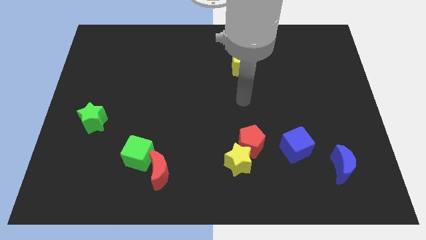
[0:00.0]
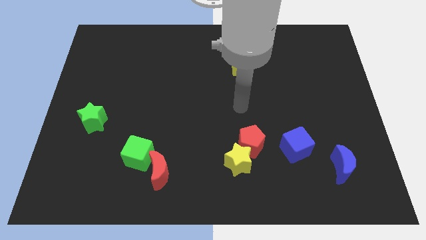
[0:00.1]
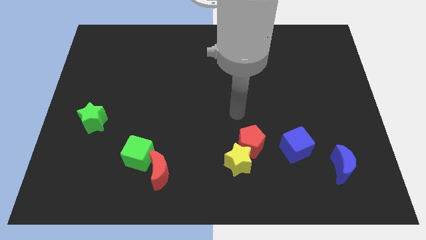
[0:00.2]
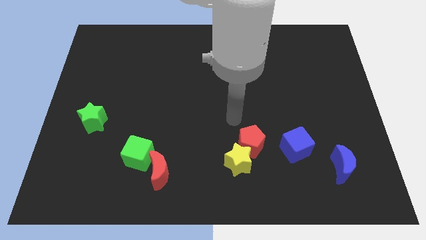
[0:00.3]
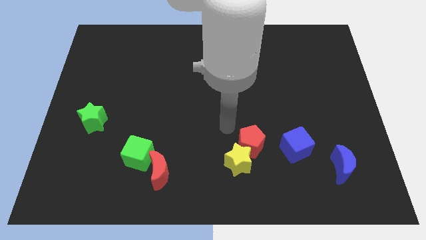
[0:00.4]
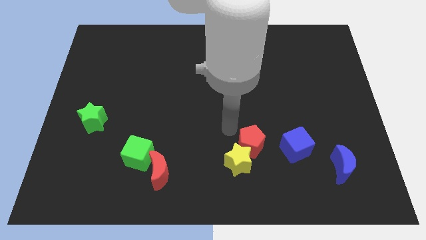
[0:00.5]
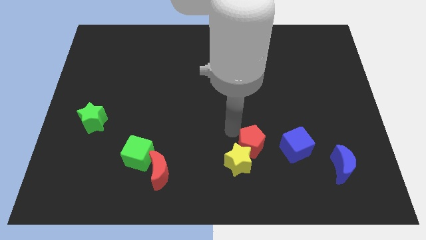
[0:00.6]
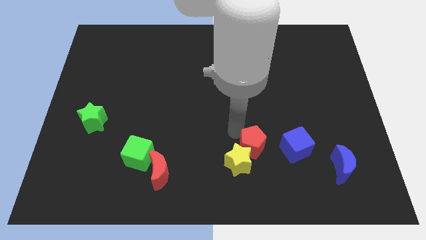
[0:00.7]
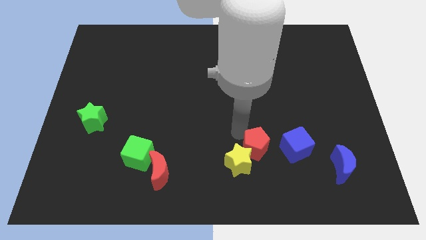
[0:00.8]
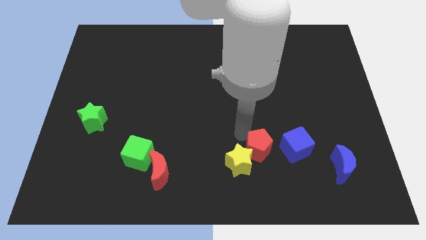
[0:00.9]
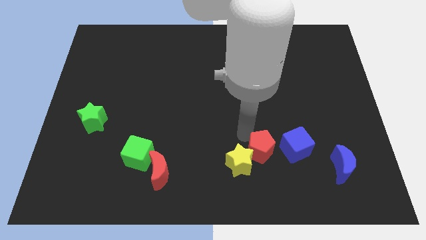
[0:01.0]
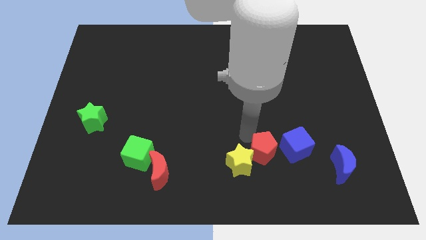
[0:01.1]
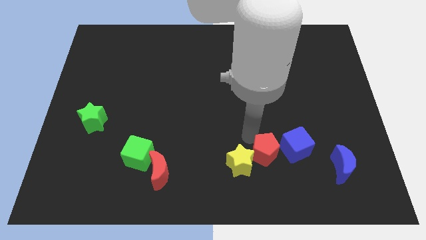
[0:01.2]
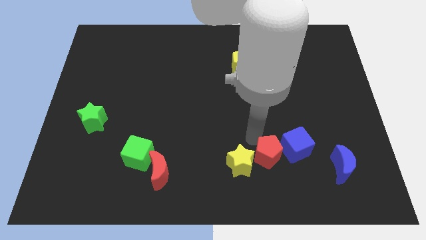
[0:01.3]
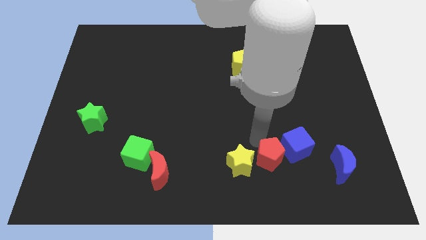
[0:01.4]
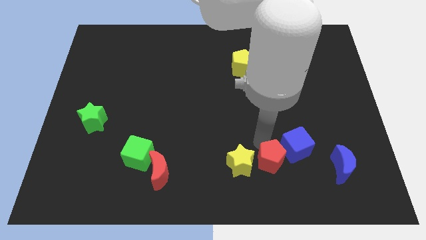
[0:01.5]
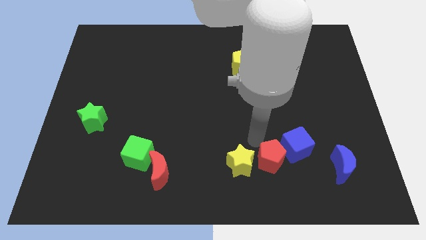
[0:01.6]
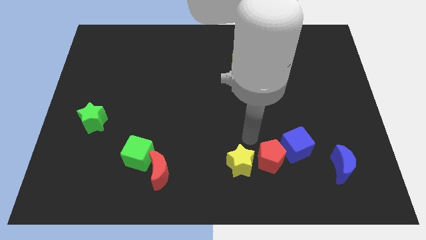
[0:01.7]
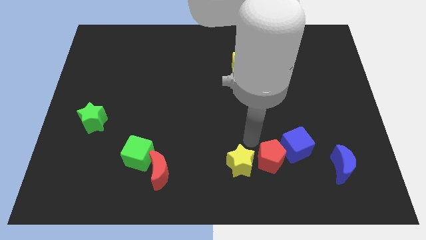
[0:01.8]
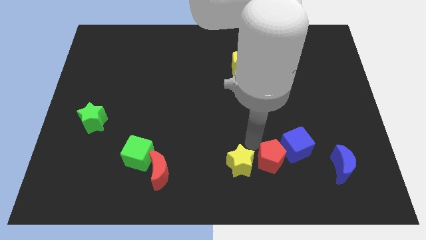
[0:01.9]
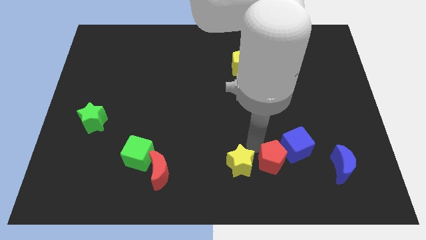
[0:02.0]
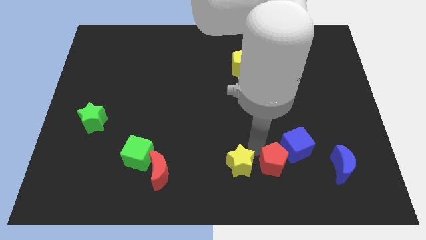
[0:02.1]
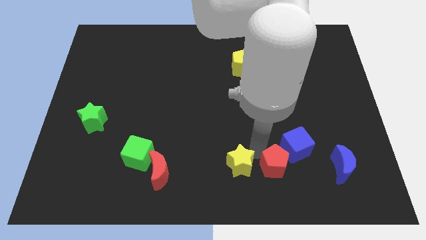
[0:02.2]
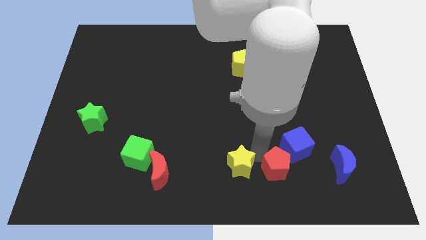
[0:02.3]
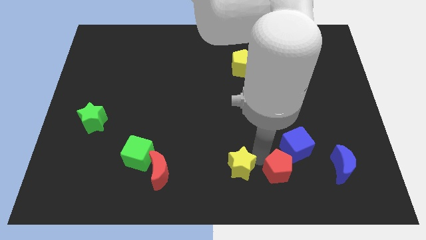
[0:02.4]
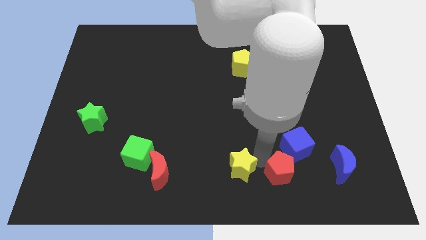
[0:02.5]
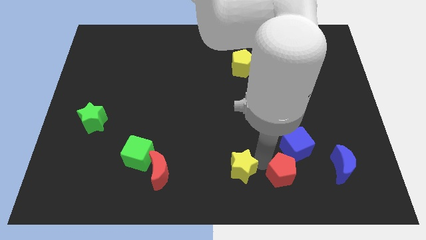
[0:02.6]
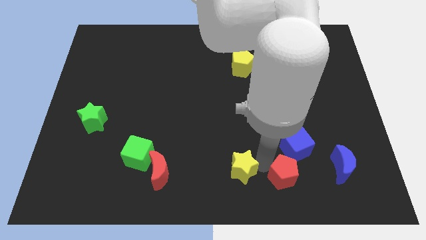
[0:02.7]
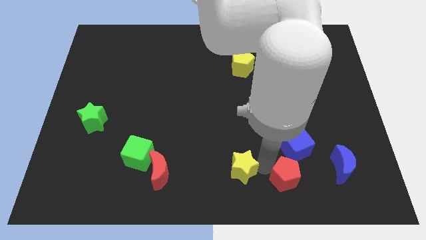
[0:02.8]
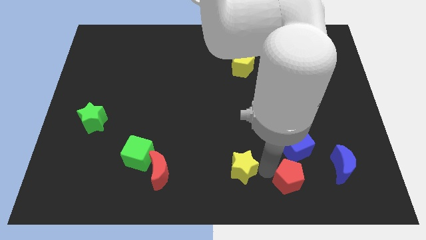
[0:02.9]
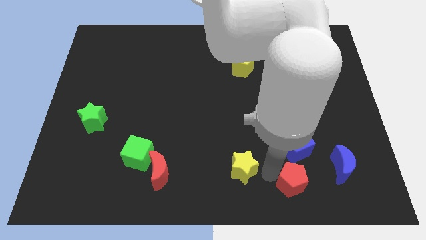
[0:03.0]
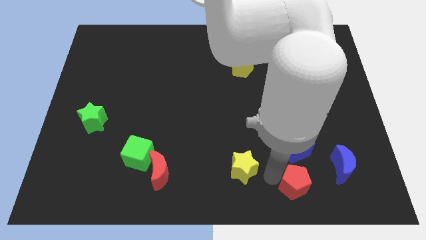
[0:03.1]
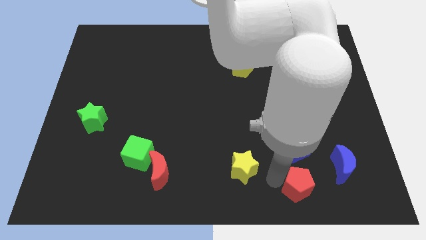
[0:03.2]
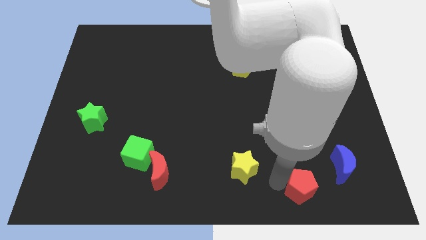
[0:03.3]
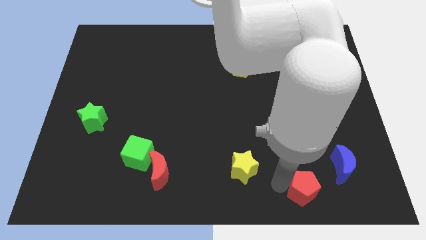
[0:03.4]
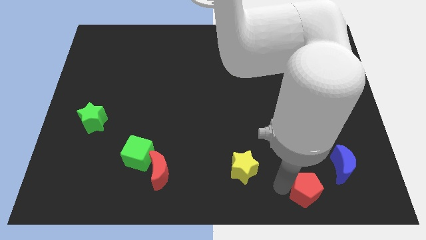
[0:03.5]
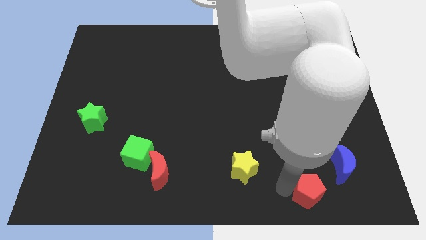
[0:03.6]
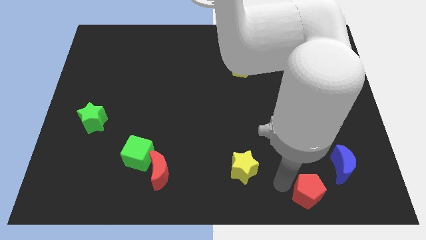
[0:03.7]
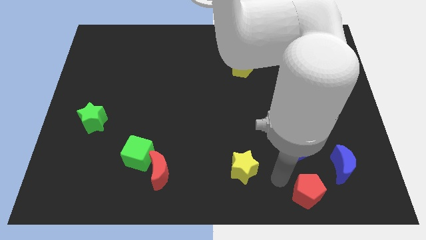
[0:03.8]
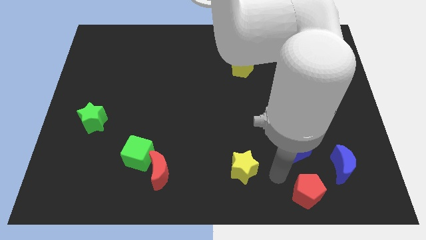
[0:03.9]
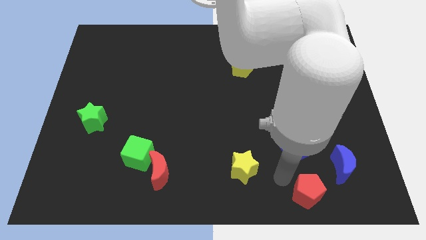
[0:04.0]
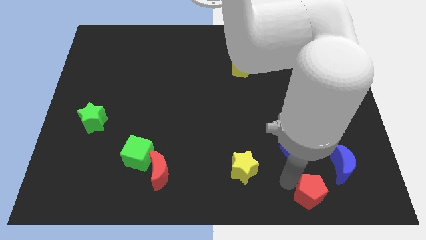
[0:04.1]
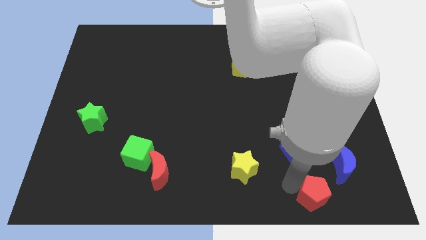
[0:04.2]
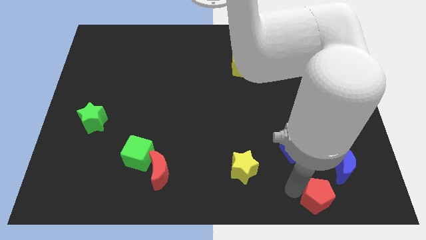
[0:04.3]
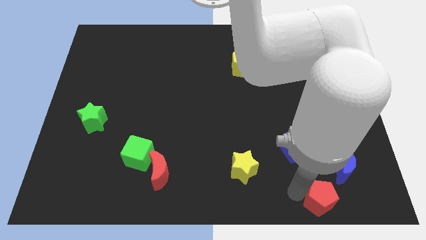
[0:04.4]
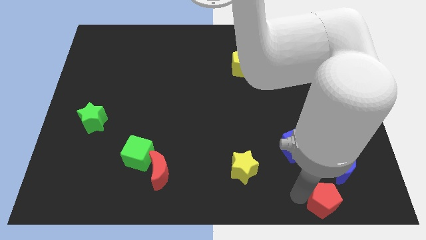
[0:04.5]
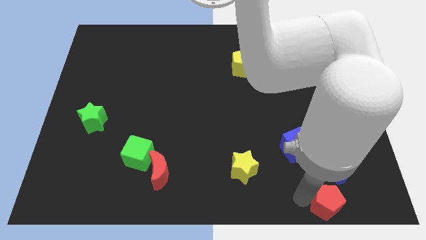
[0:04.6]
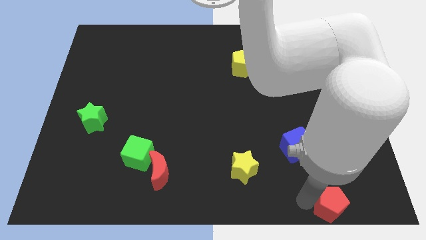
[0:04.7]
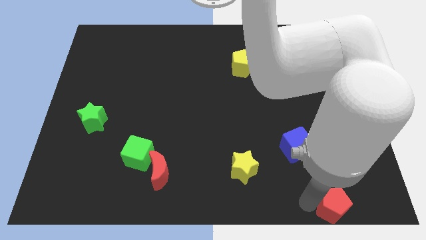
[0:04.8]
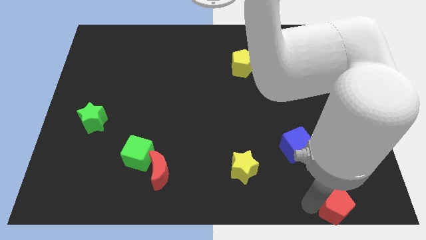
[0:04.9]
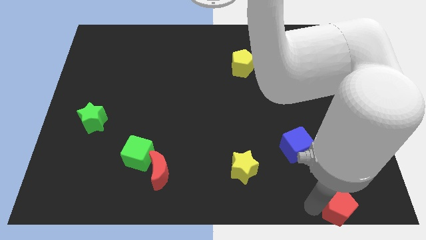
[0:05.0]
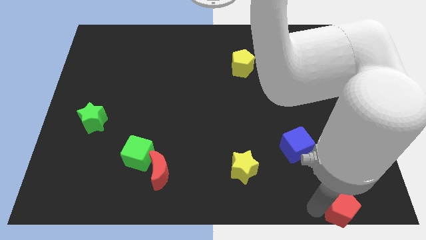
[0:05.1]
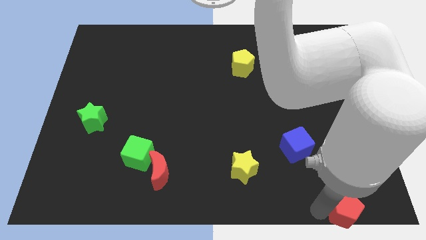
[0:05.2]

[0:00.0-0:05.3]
move the red pentagon to the lower right corner

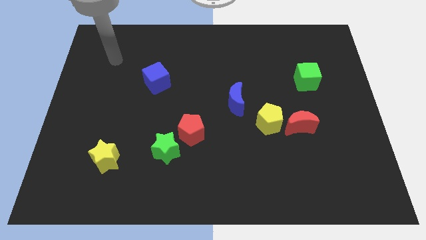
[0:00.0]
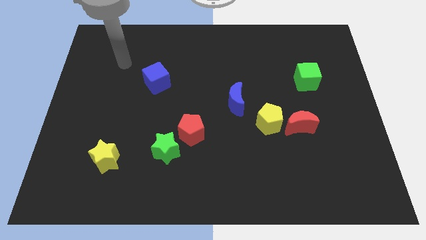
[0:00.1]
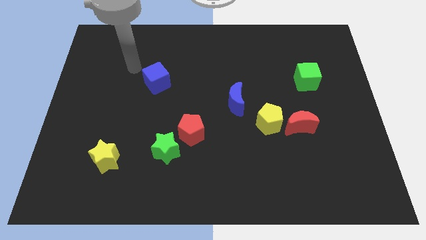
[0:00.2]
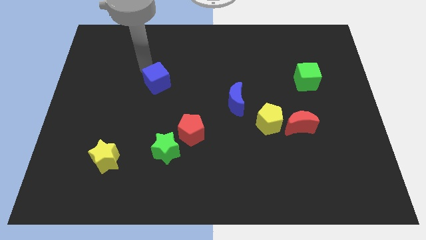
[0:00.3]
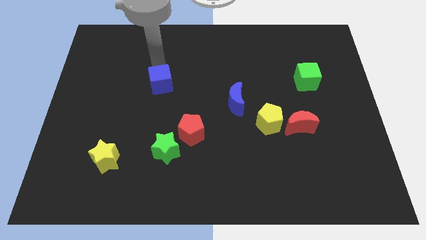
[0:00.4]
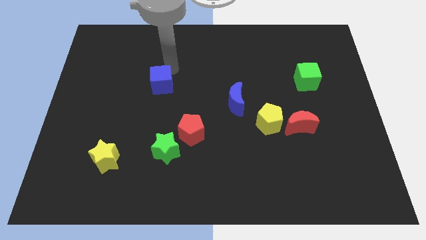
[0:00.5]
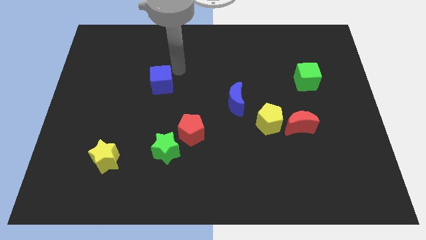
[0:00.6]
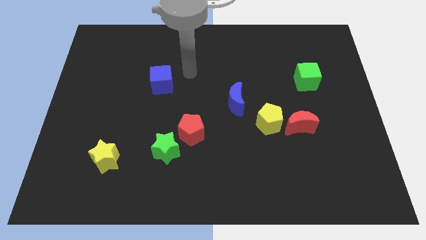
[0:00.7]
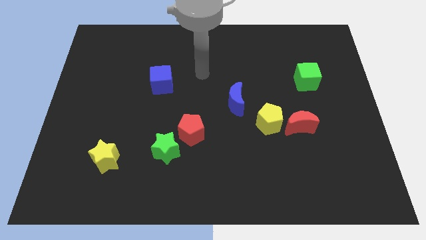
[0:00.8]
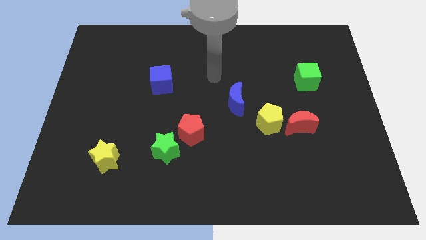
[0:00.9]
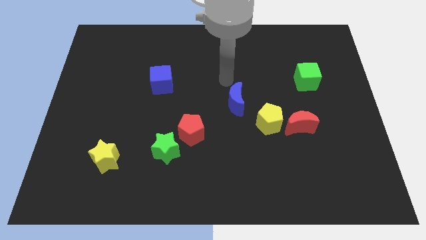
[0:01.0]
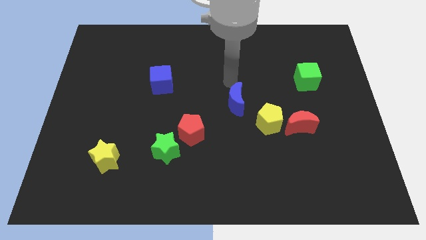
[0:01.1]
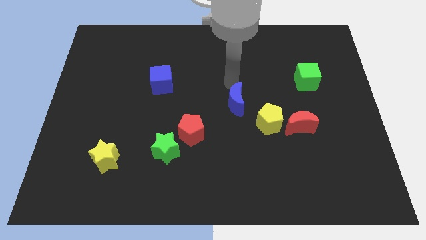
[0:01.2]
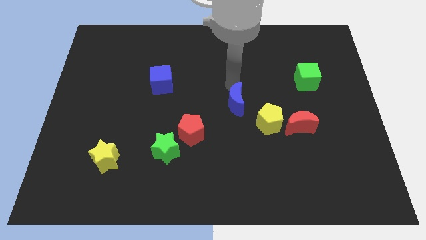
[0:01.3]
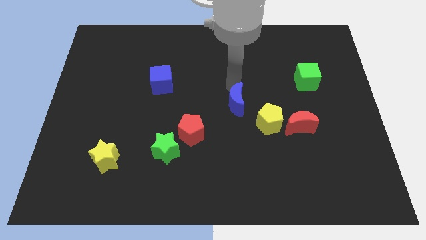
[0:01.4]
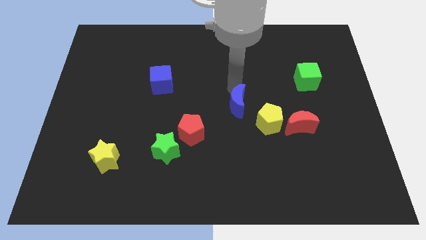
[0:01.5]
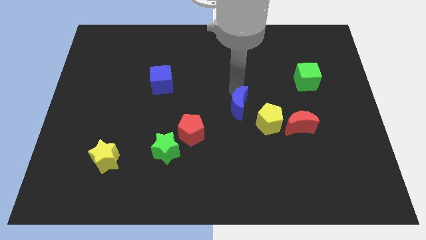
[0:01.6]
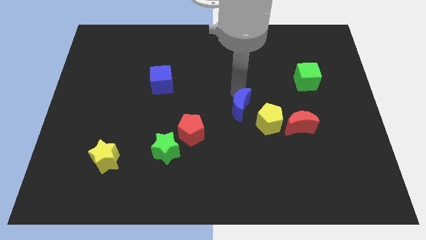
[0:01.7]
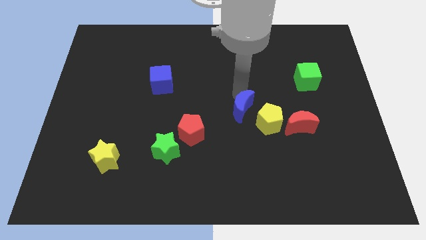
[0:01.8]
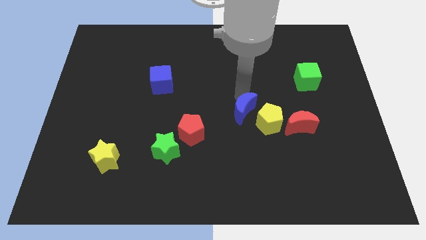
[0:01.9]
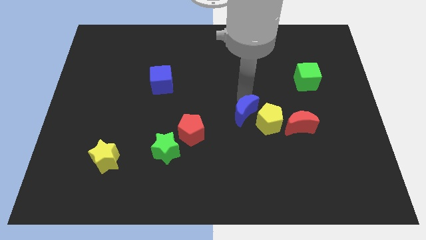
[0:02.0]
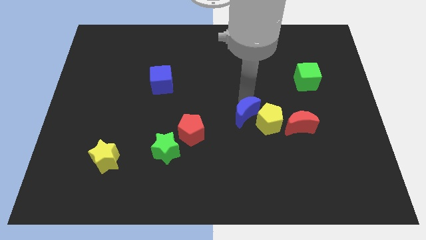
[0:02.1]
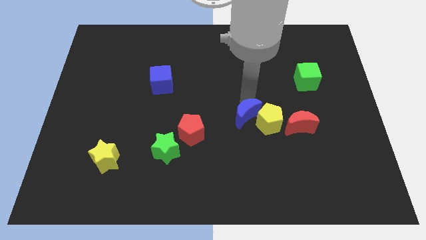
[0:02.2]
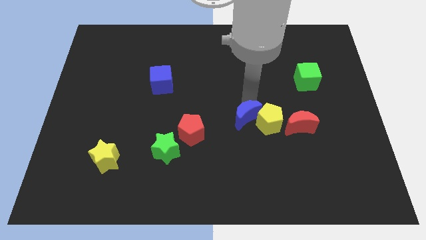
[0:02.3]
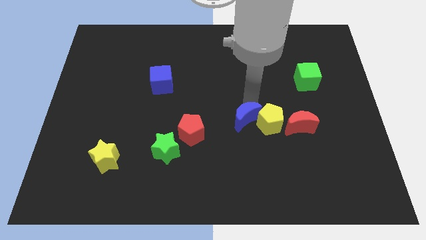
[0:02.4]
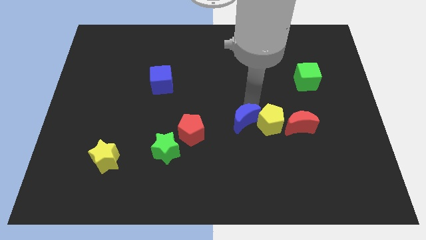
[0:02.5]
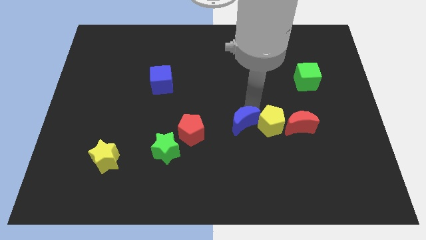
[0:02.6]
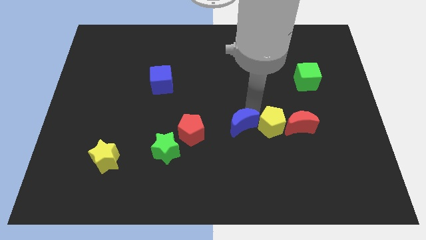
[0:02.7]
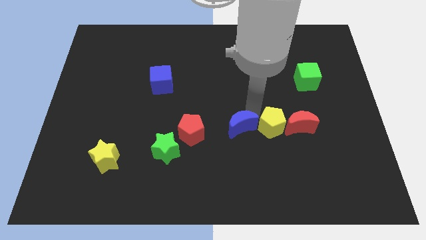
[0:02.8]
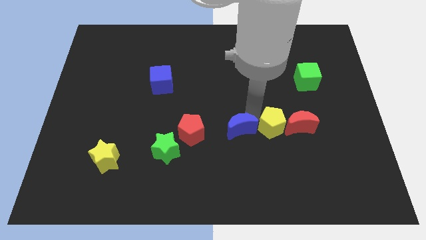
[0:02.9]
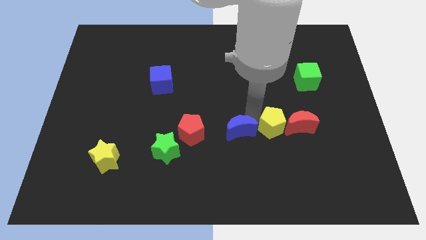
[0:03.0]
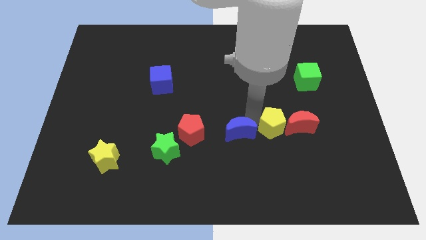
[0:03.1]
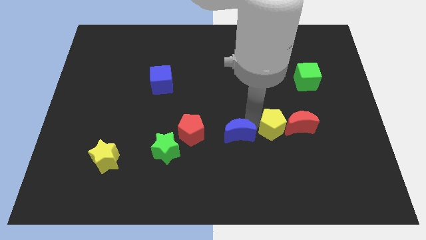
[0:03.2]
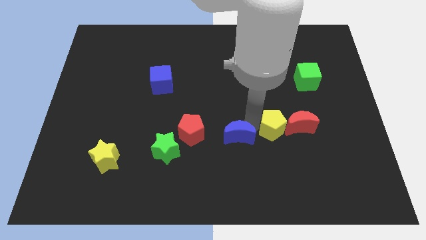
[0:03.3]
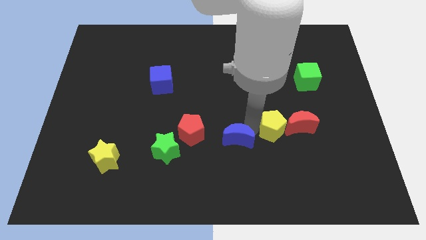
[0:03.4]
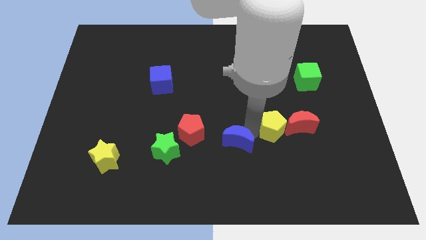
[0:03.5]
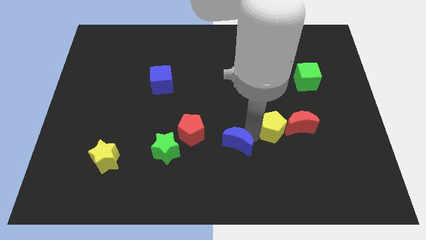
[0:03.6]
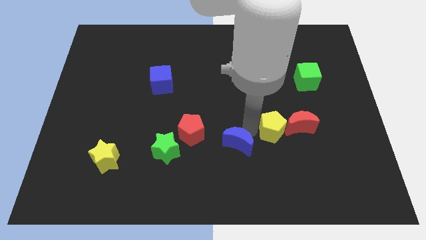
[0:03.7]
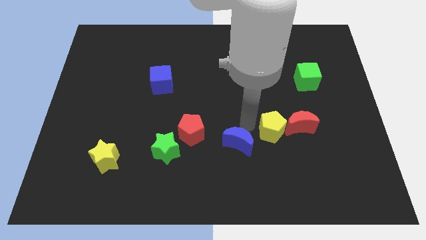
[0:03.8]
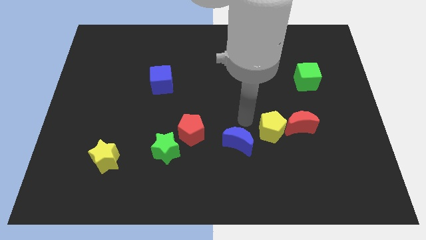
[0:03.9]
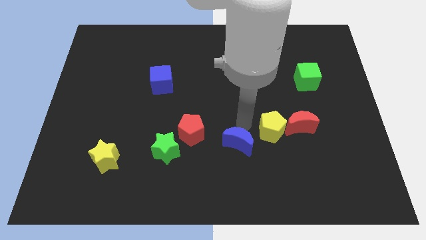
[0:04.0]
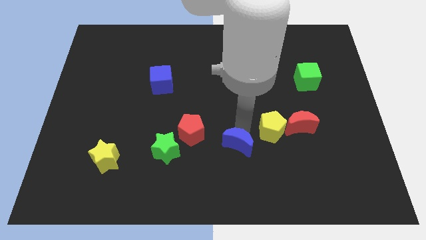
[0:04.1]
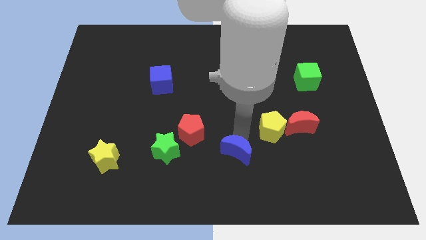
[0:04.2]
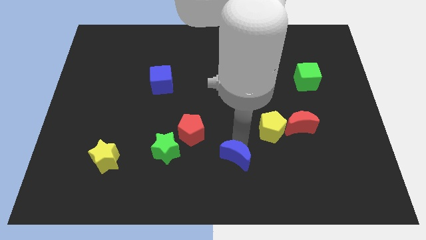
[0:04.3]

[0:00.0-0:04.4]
push the blue moon to the bottom
